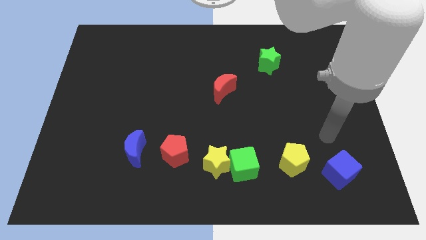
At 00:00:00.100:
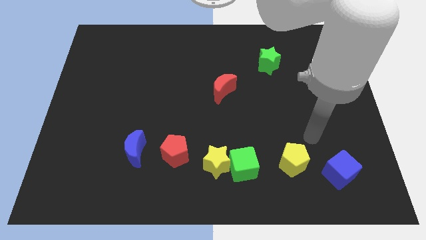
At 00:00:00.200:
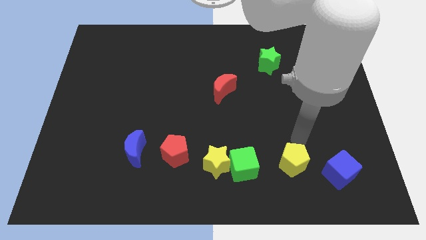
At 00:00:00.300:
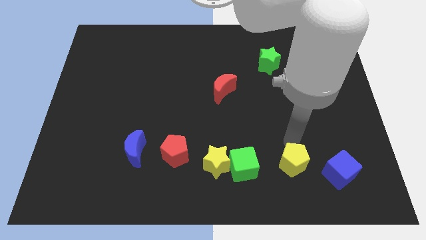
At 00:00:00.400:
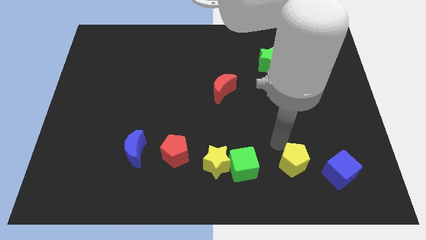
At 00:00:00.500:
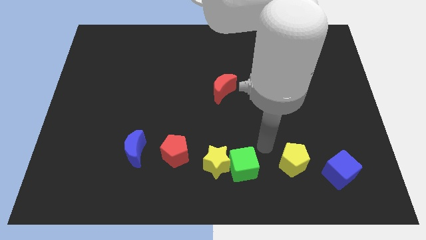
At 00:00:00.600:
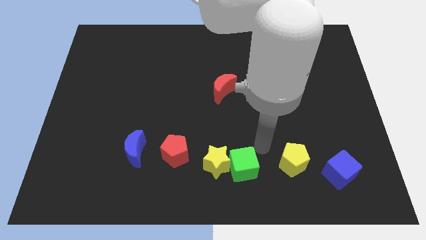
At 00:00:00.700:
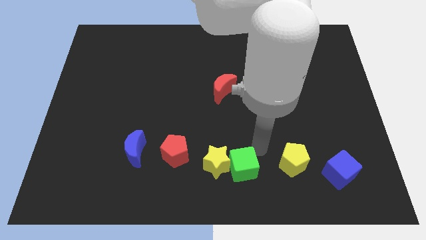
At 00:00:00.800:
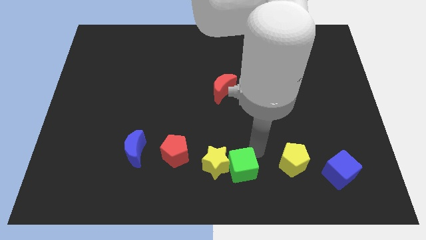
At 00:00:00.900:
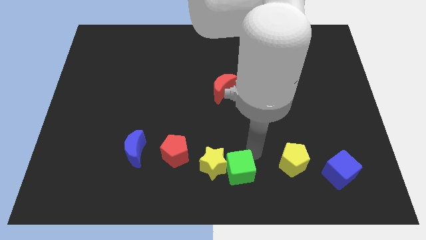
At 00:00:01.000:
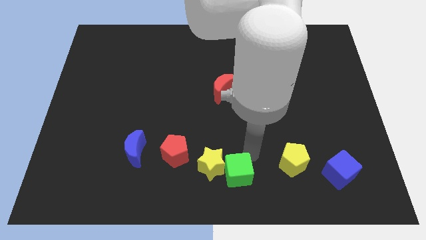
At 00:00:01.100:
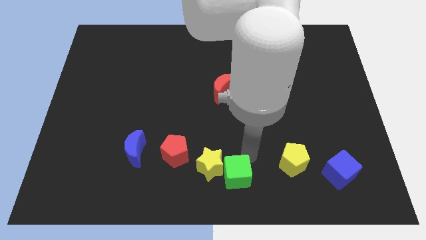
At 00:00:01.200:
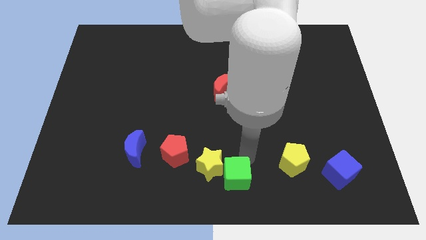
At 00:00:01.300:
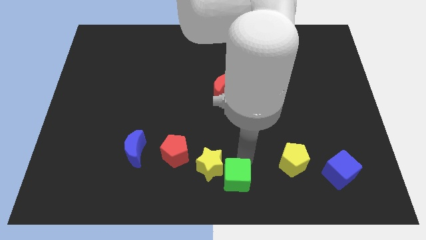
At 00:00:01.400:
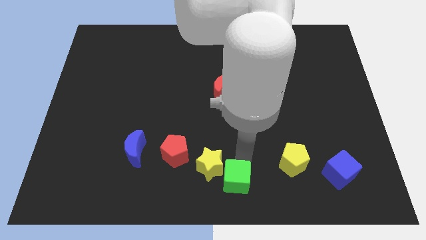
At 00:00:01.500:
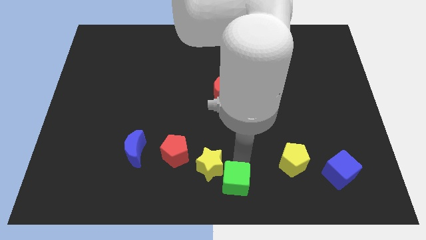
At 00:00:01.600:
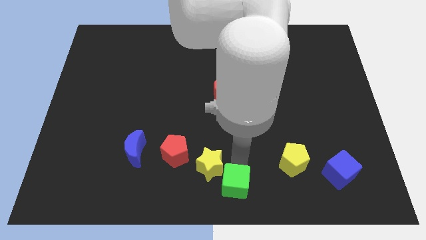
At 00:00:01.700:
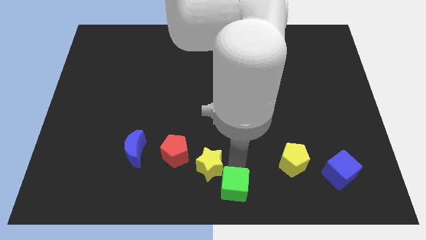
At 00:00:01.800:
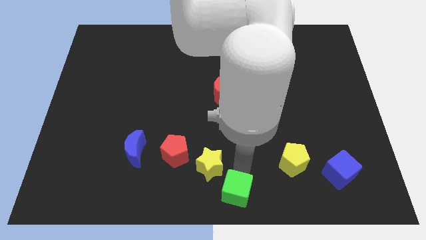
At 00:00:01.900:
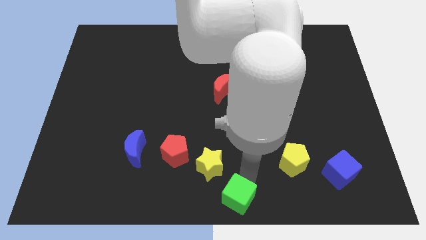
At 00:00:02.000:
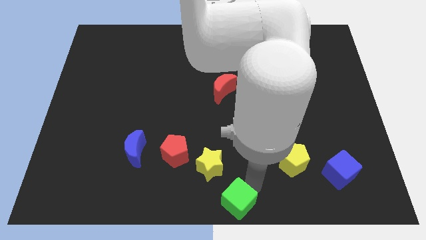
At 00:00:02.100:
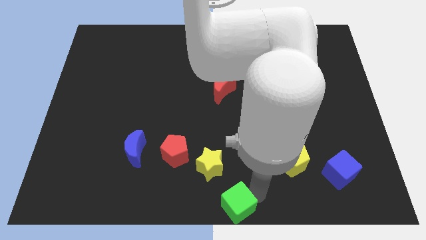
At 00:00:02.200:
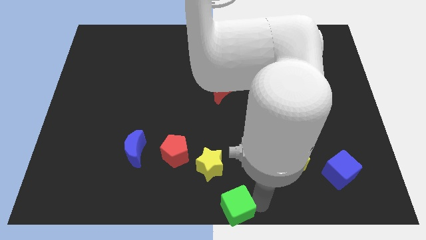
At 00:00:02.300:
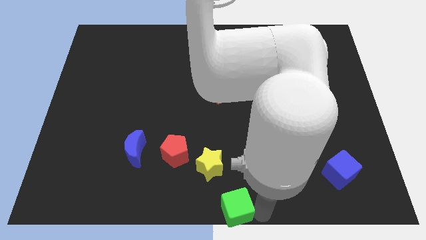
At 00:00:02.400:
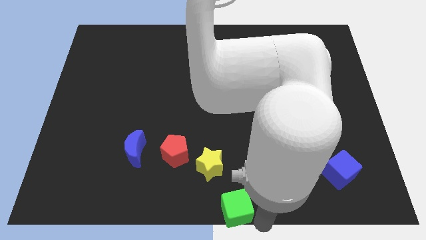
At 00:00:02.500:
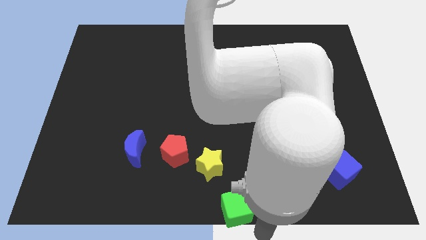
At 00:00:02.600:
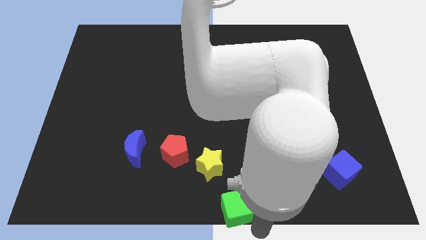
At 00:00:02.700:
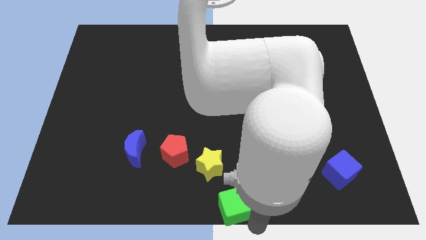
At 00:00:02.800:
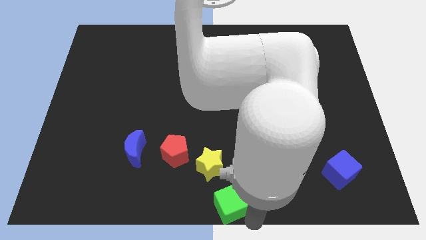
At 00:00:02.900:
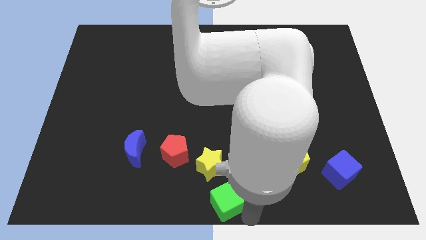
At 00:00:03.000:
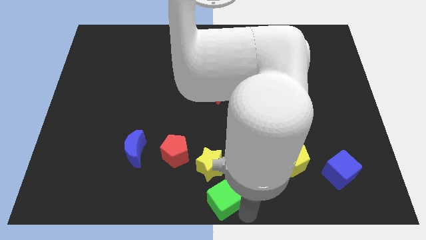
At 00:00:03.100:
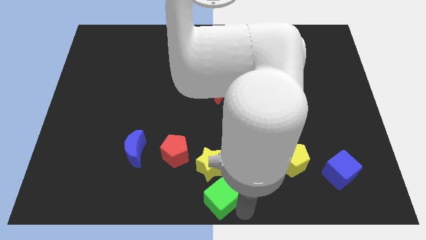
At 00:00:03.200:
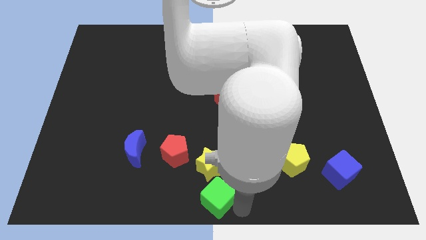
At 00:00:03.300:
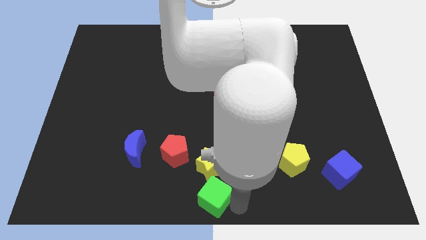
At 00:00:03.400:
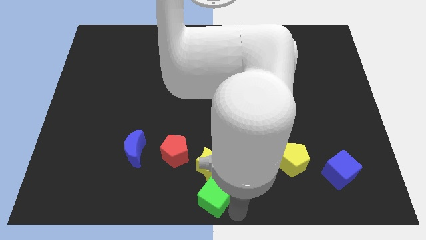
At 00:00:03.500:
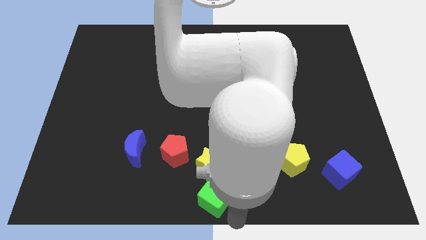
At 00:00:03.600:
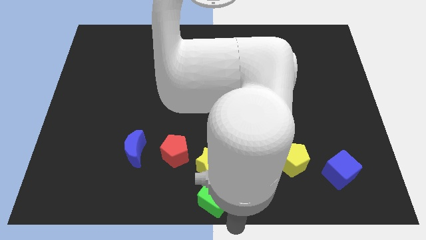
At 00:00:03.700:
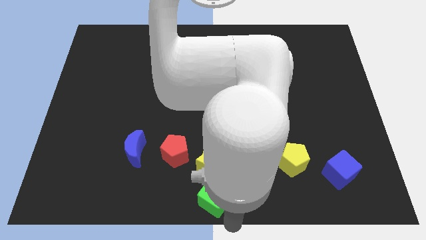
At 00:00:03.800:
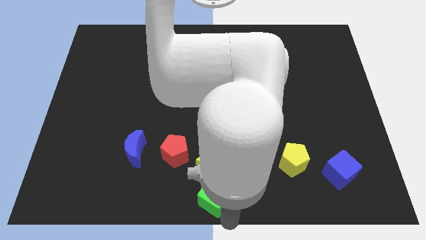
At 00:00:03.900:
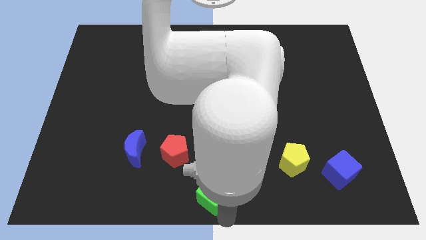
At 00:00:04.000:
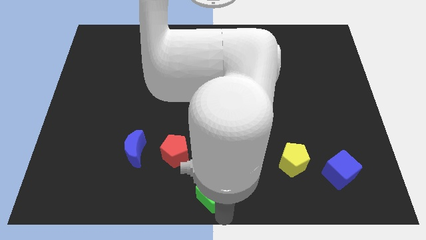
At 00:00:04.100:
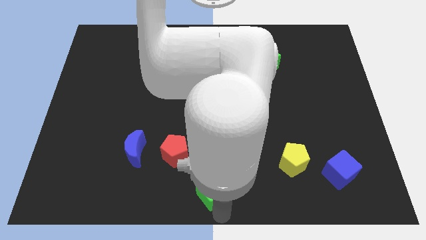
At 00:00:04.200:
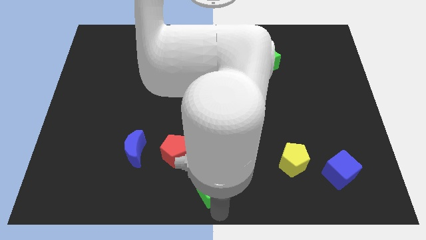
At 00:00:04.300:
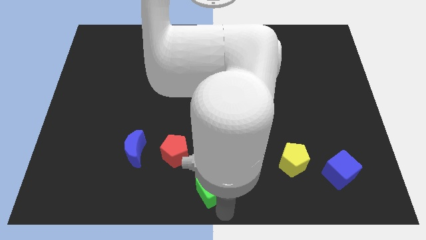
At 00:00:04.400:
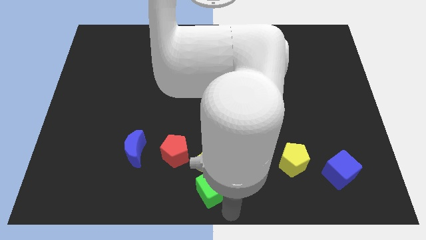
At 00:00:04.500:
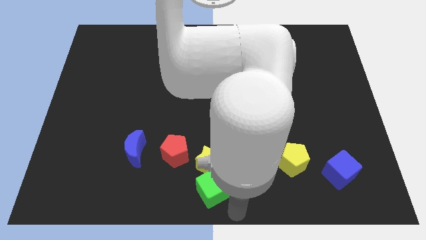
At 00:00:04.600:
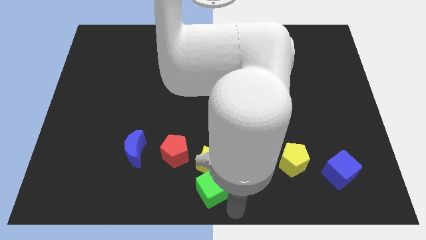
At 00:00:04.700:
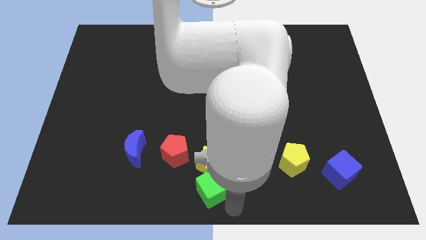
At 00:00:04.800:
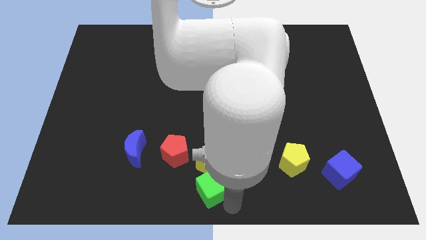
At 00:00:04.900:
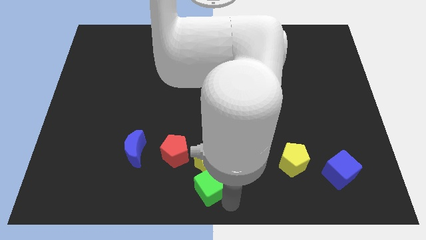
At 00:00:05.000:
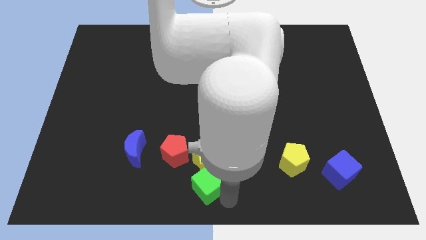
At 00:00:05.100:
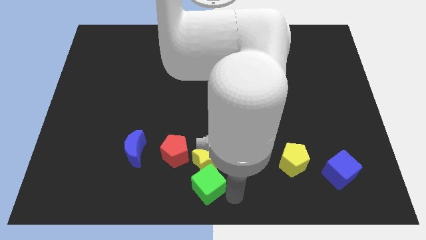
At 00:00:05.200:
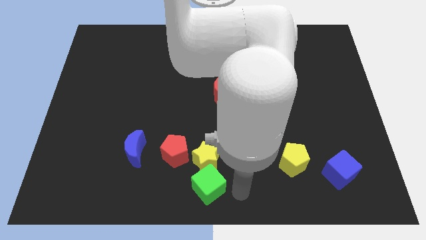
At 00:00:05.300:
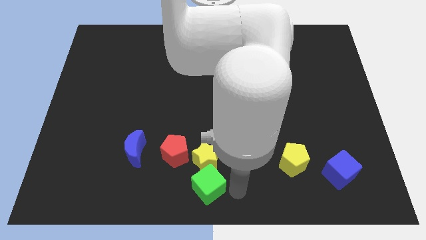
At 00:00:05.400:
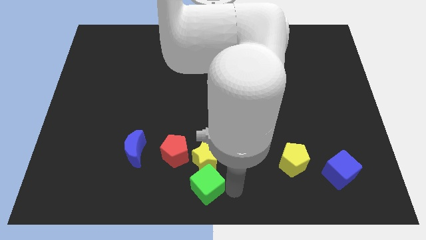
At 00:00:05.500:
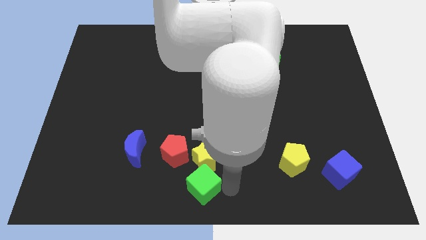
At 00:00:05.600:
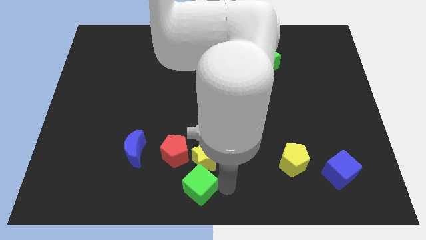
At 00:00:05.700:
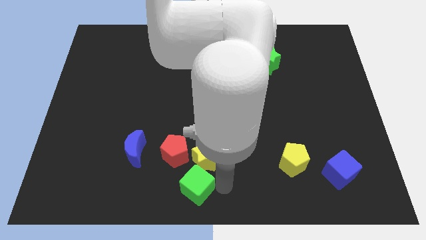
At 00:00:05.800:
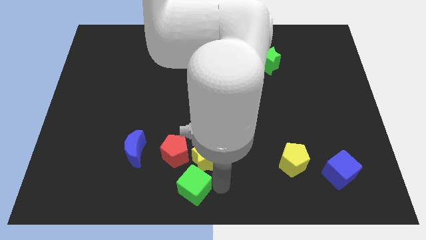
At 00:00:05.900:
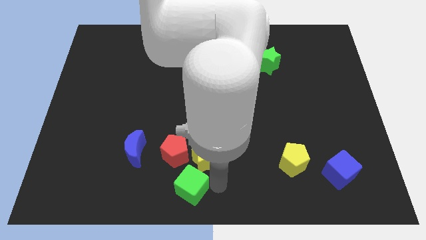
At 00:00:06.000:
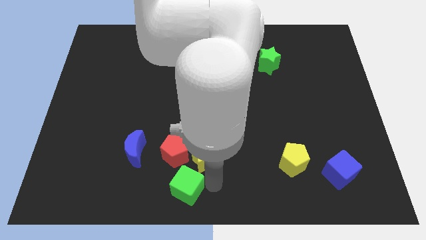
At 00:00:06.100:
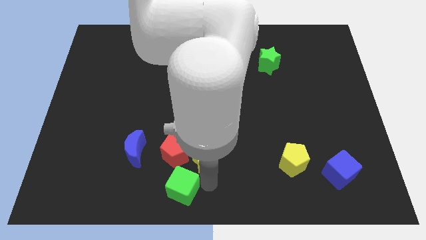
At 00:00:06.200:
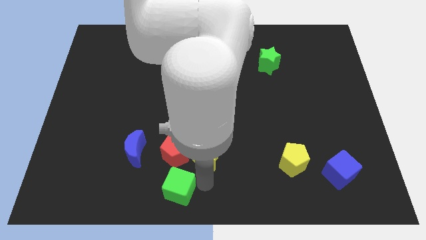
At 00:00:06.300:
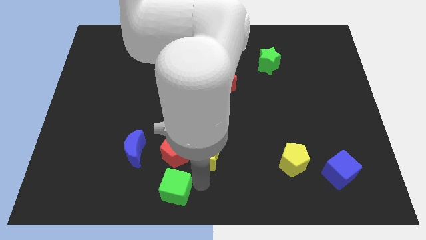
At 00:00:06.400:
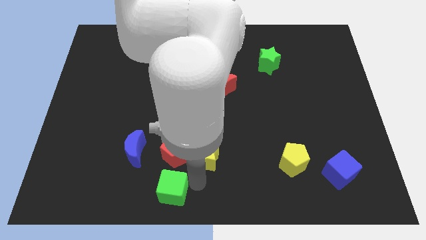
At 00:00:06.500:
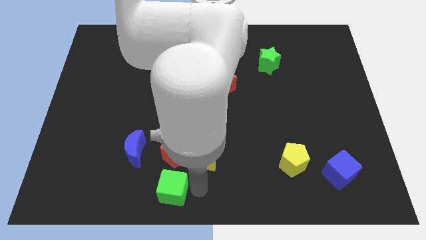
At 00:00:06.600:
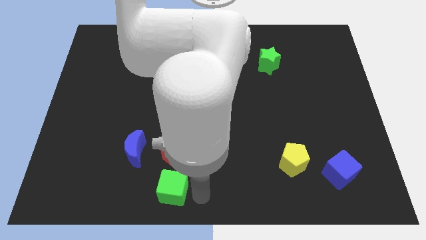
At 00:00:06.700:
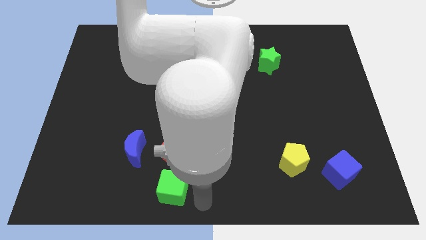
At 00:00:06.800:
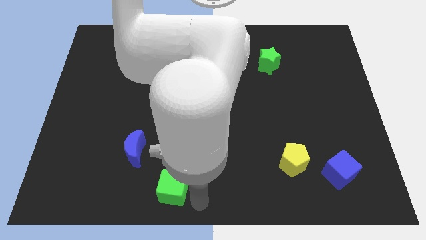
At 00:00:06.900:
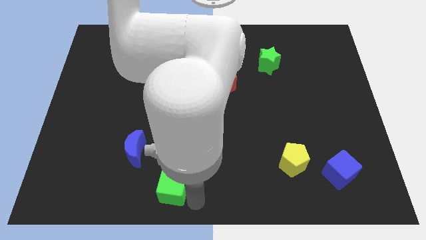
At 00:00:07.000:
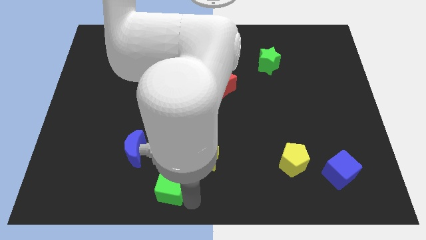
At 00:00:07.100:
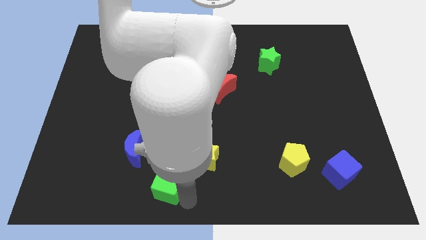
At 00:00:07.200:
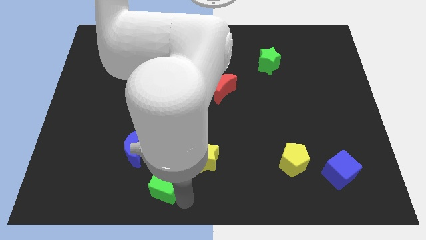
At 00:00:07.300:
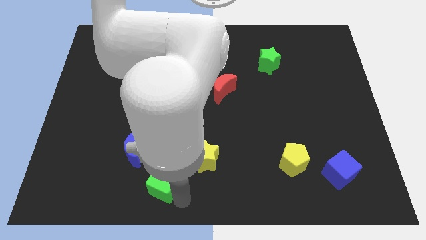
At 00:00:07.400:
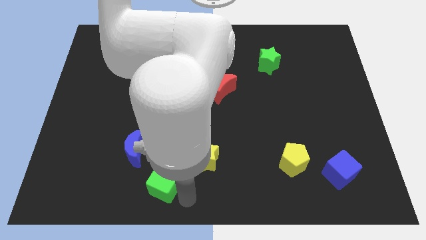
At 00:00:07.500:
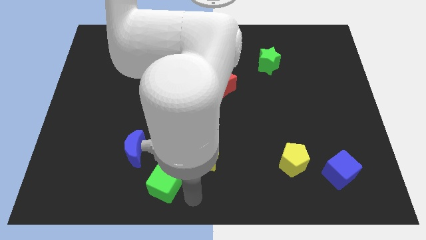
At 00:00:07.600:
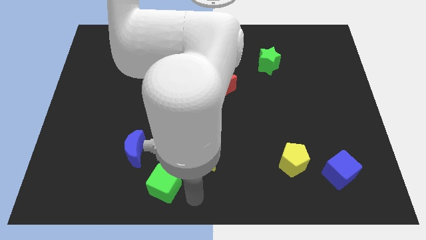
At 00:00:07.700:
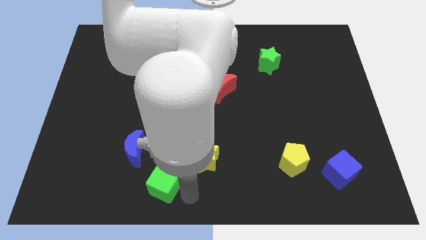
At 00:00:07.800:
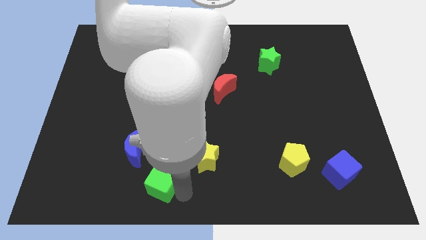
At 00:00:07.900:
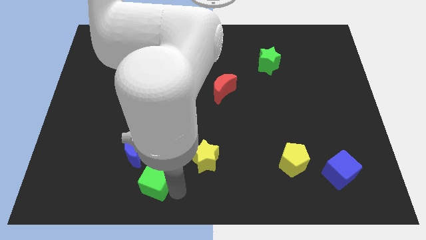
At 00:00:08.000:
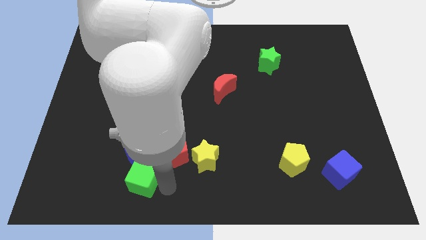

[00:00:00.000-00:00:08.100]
move the green cube to the left

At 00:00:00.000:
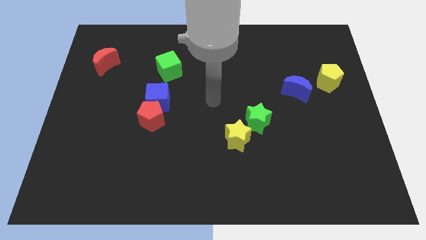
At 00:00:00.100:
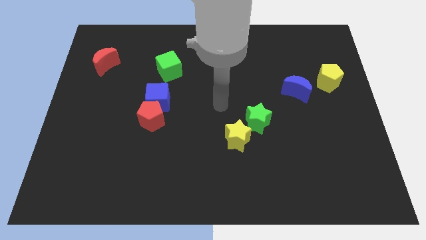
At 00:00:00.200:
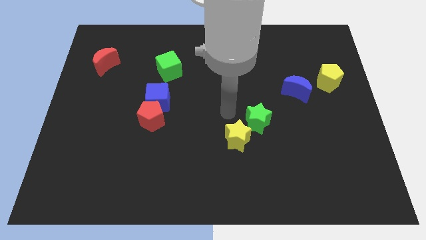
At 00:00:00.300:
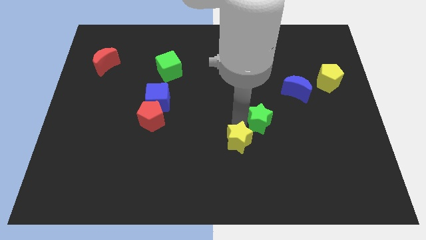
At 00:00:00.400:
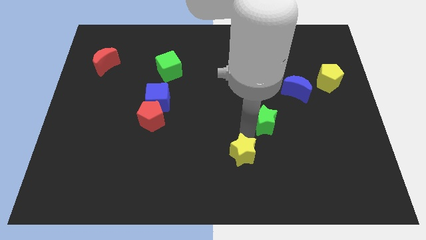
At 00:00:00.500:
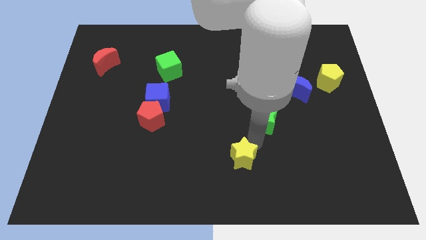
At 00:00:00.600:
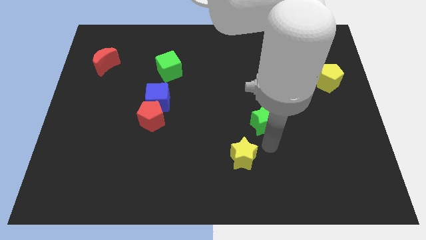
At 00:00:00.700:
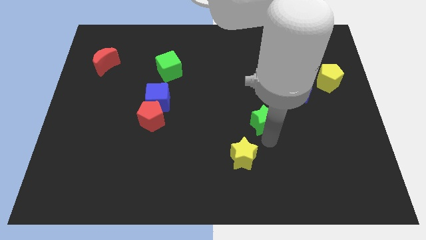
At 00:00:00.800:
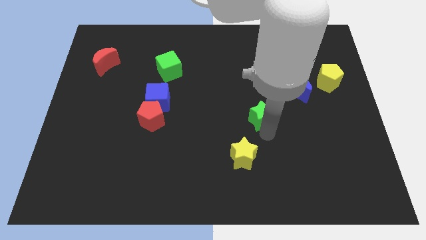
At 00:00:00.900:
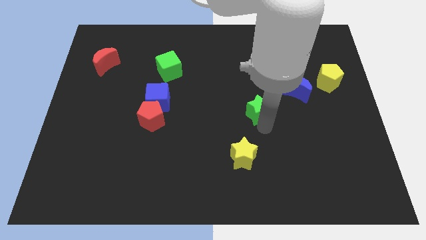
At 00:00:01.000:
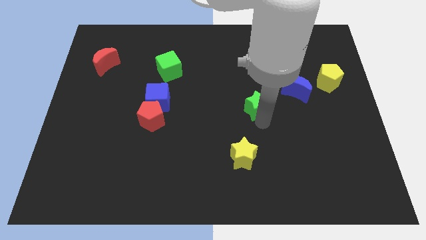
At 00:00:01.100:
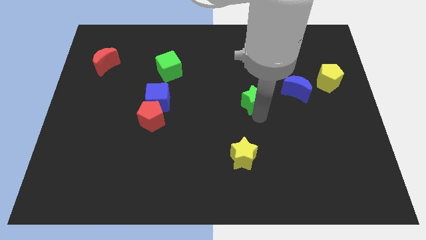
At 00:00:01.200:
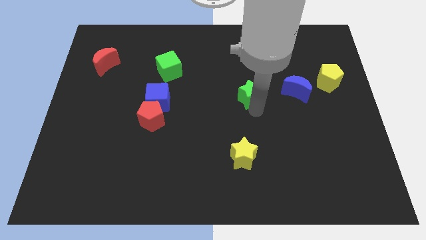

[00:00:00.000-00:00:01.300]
move the green star upwards a little
